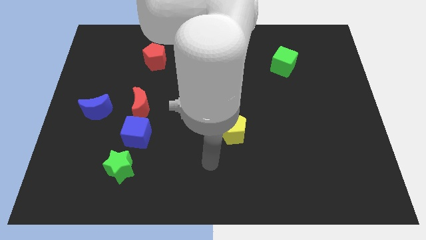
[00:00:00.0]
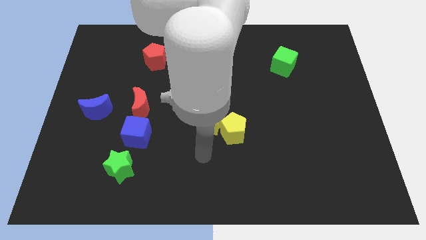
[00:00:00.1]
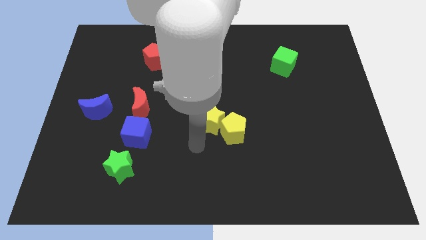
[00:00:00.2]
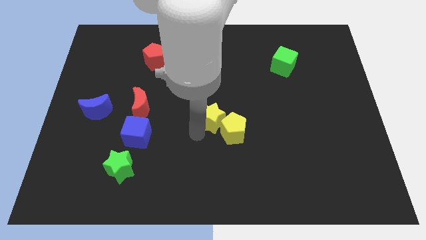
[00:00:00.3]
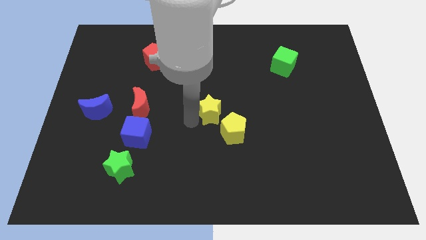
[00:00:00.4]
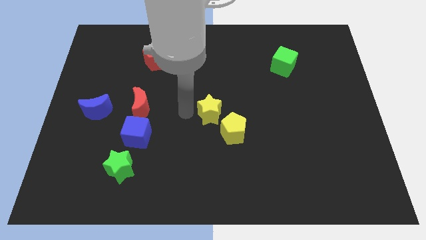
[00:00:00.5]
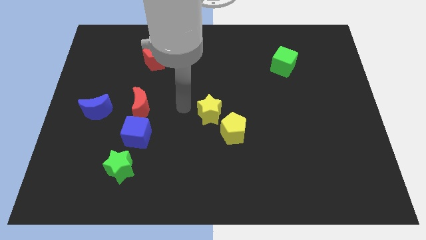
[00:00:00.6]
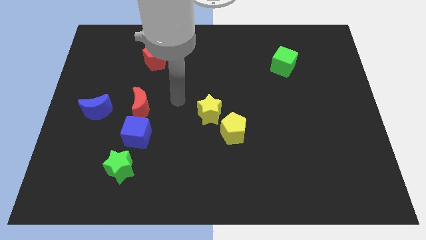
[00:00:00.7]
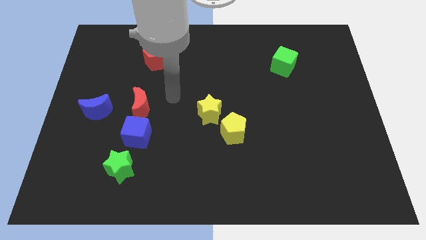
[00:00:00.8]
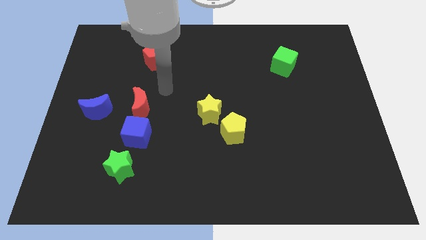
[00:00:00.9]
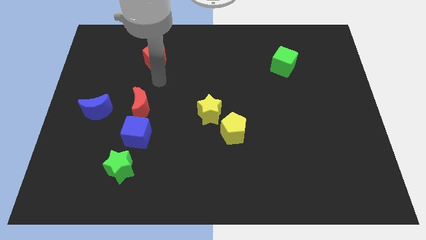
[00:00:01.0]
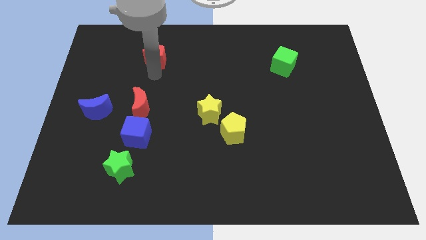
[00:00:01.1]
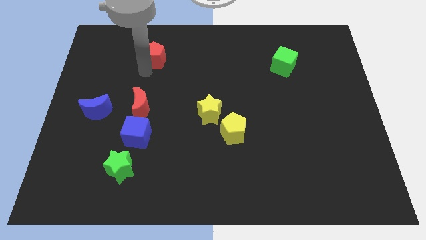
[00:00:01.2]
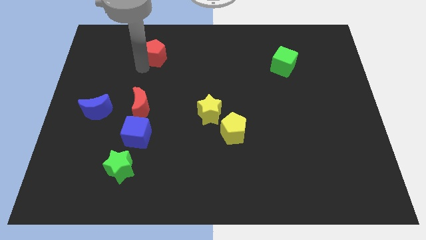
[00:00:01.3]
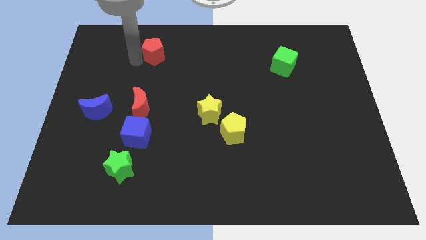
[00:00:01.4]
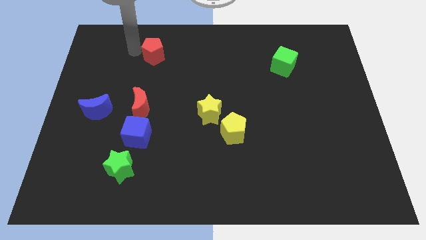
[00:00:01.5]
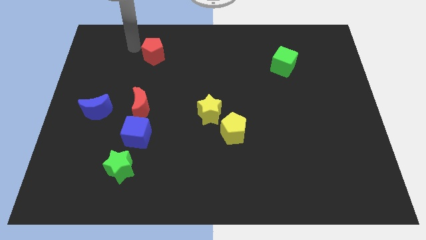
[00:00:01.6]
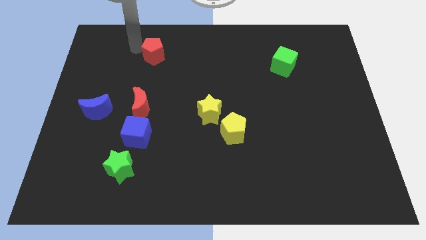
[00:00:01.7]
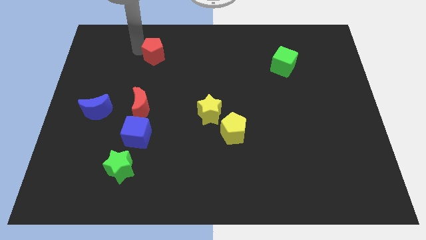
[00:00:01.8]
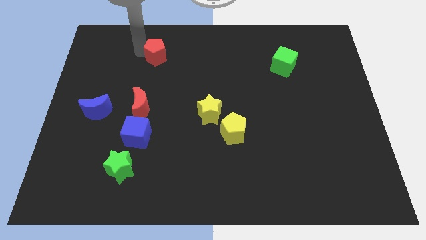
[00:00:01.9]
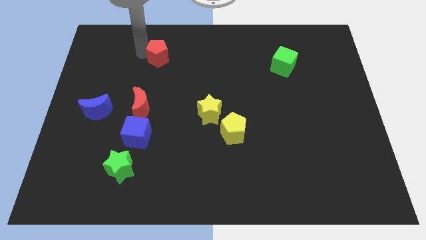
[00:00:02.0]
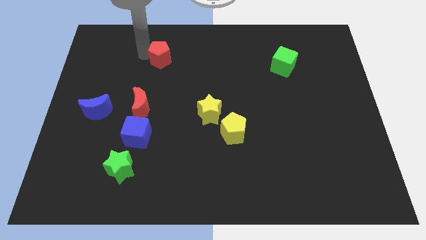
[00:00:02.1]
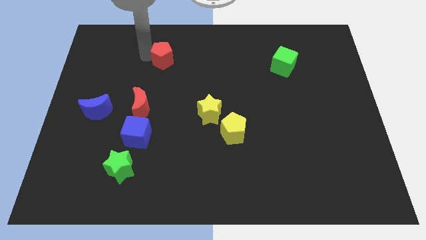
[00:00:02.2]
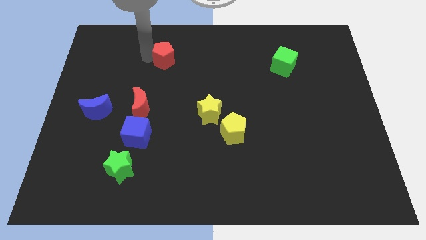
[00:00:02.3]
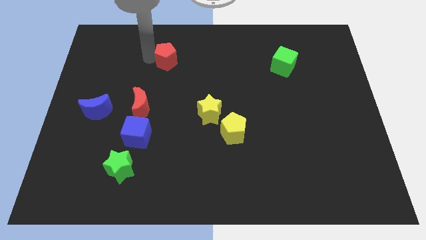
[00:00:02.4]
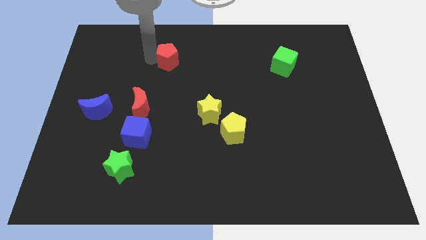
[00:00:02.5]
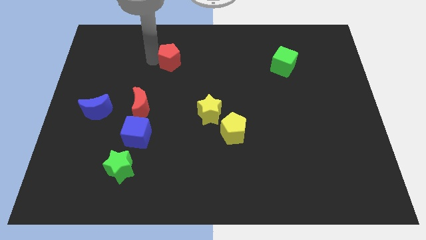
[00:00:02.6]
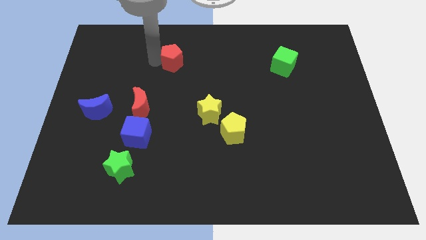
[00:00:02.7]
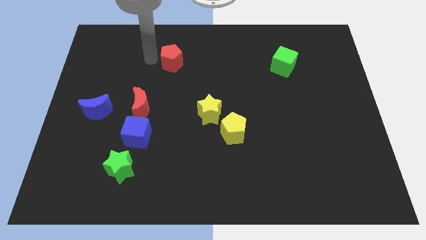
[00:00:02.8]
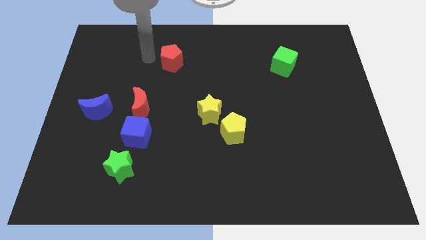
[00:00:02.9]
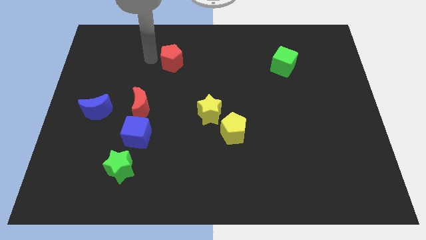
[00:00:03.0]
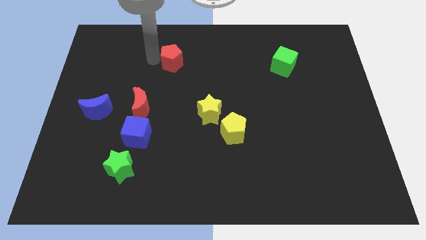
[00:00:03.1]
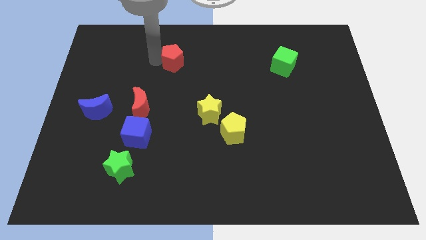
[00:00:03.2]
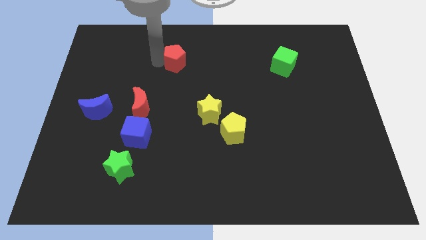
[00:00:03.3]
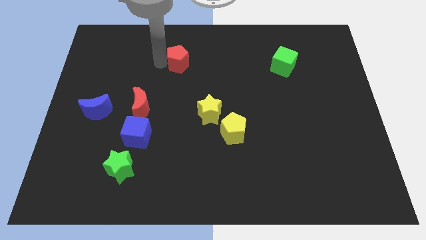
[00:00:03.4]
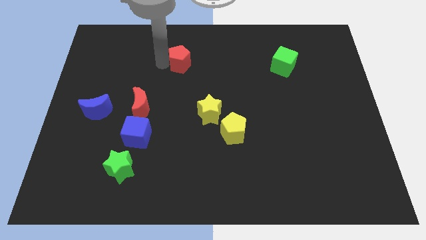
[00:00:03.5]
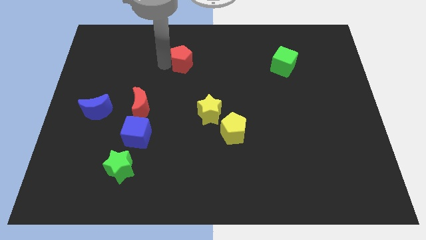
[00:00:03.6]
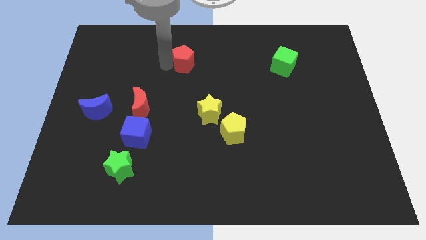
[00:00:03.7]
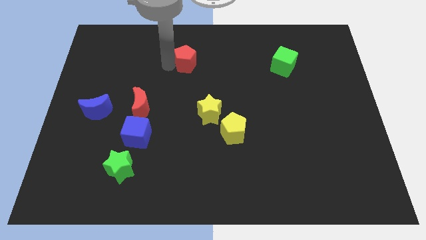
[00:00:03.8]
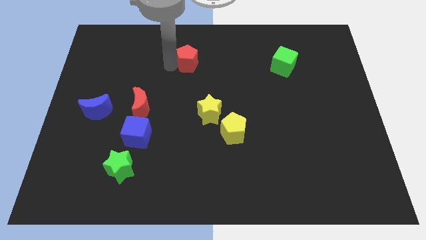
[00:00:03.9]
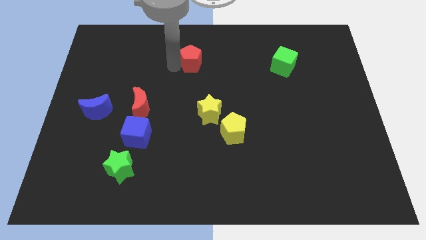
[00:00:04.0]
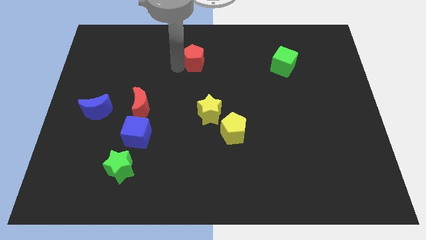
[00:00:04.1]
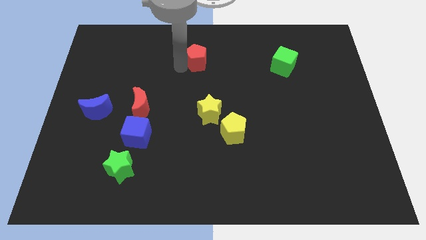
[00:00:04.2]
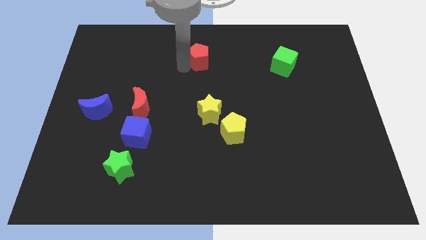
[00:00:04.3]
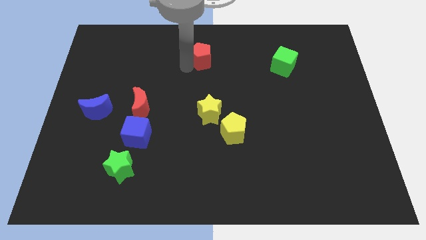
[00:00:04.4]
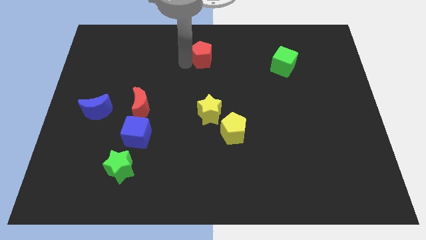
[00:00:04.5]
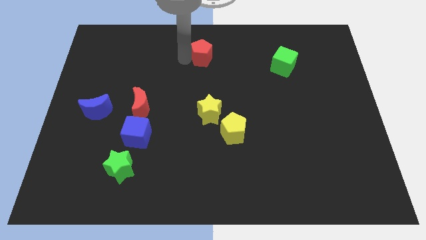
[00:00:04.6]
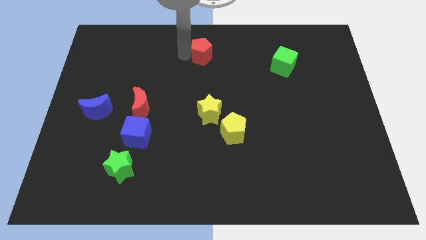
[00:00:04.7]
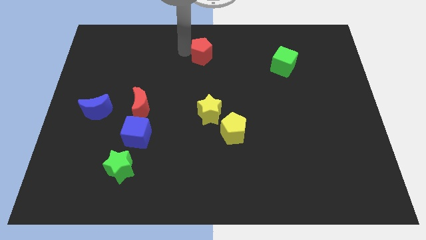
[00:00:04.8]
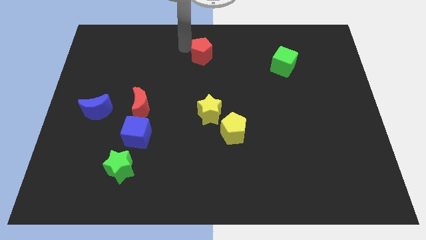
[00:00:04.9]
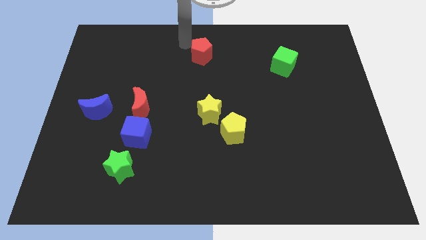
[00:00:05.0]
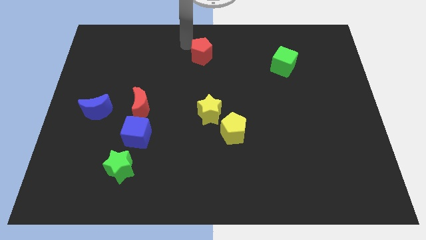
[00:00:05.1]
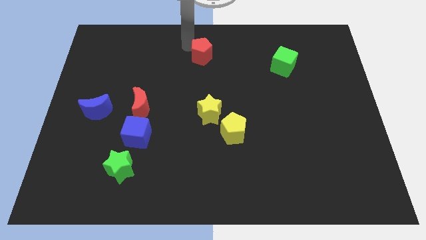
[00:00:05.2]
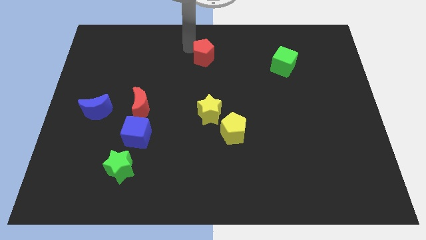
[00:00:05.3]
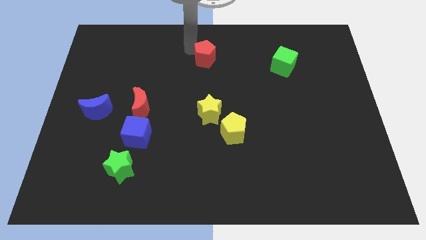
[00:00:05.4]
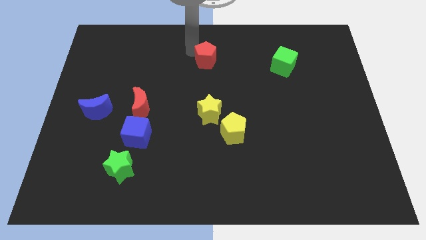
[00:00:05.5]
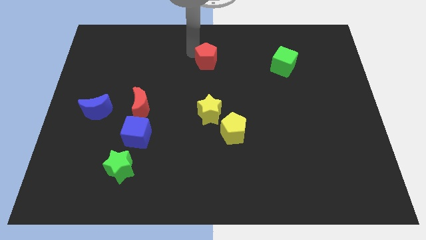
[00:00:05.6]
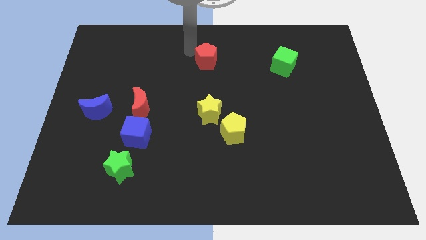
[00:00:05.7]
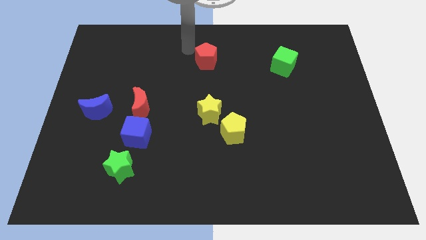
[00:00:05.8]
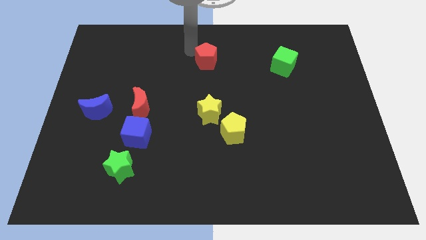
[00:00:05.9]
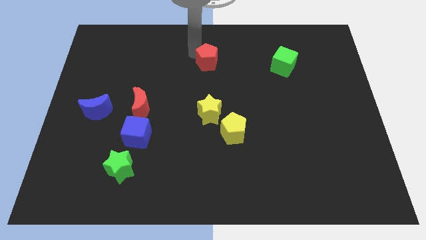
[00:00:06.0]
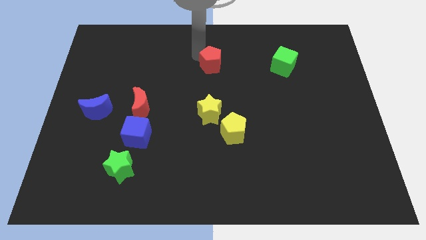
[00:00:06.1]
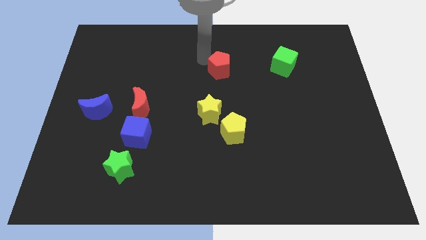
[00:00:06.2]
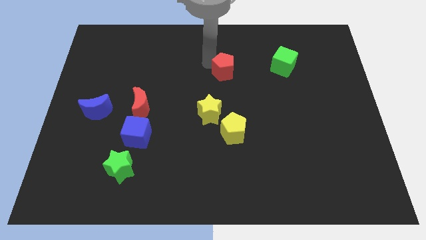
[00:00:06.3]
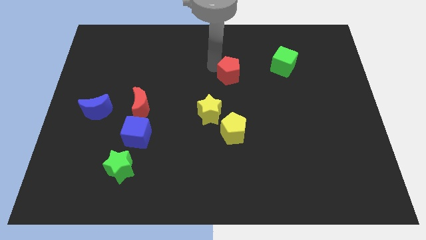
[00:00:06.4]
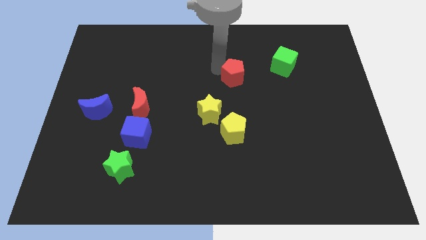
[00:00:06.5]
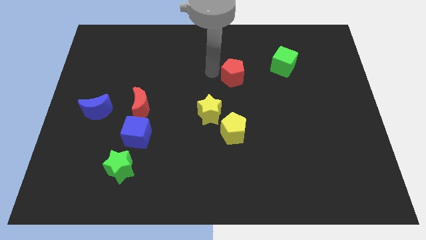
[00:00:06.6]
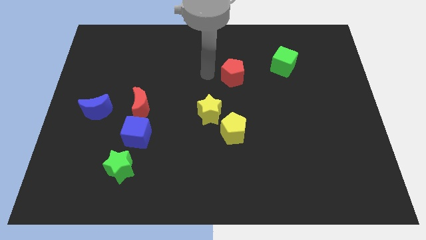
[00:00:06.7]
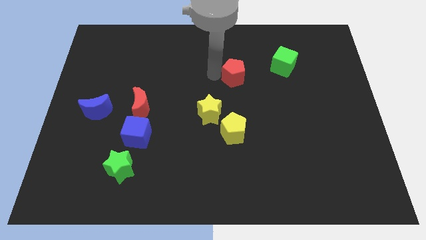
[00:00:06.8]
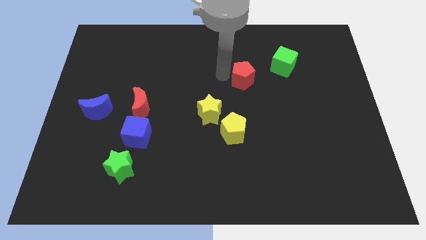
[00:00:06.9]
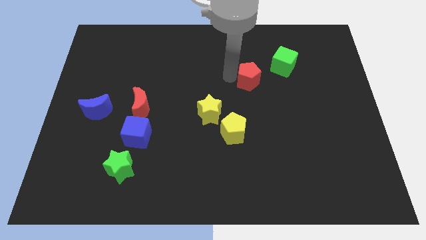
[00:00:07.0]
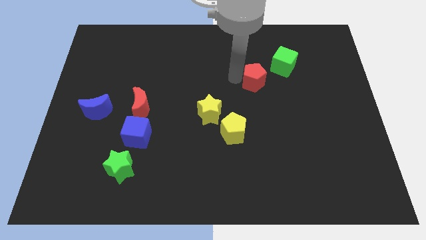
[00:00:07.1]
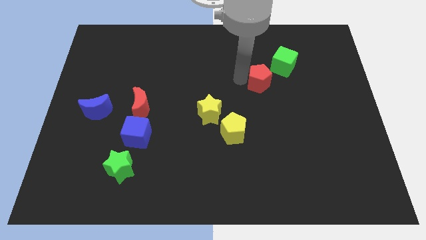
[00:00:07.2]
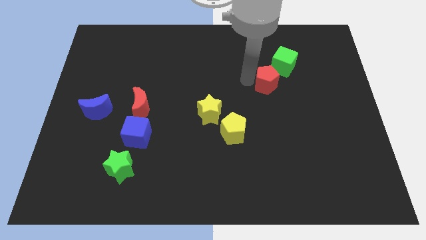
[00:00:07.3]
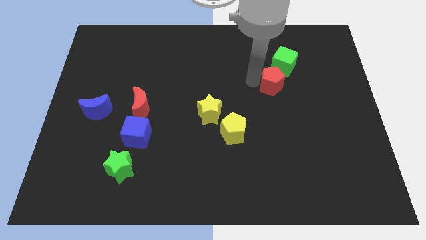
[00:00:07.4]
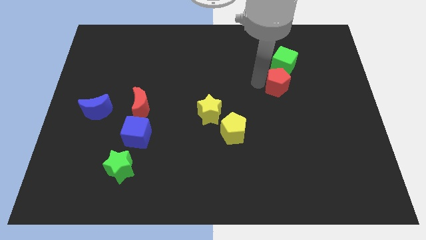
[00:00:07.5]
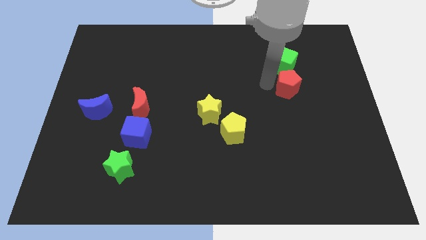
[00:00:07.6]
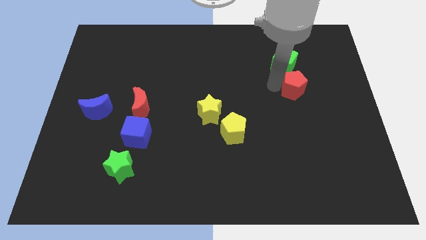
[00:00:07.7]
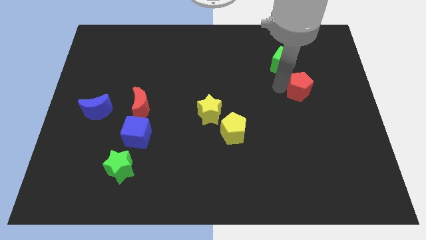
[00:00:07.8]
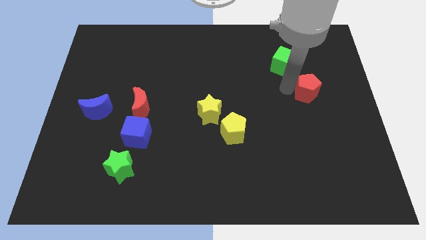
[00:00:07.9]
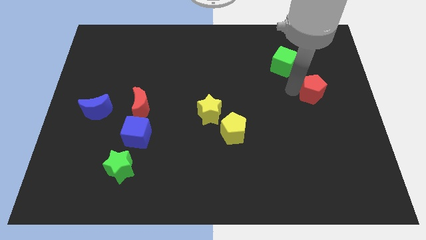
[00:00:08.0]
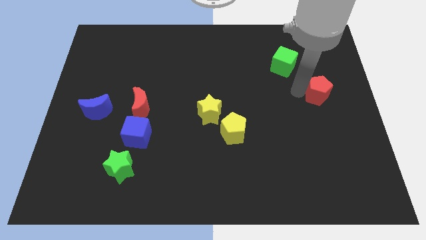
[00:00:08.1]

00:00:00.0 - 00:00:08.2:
put the red pentagon to the center right
